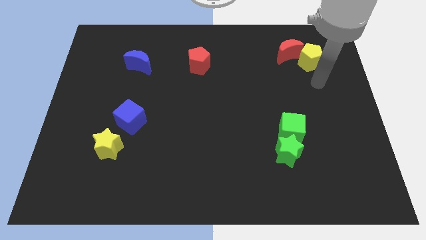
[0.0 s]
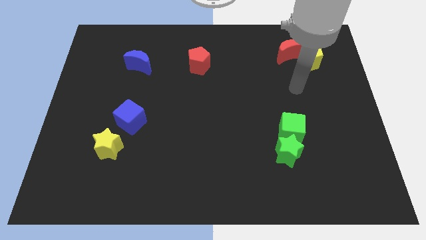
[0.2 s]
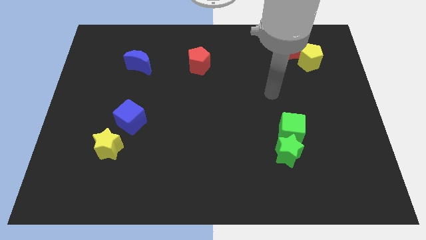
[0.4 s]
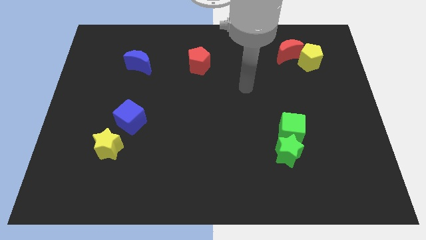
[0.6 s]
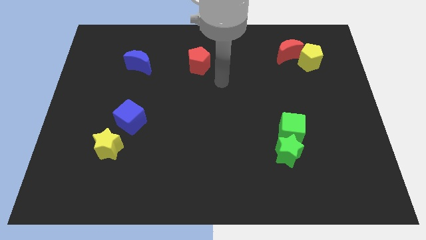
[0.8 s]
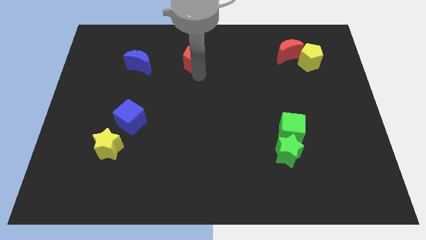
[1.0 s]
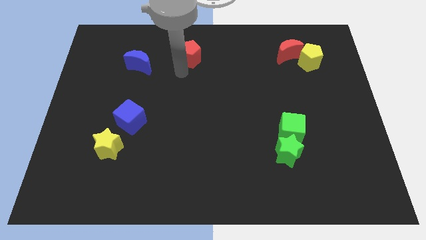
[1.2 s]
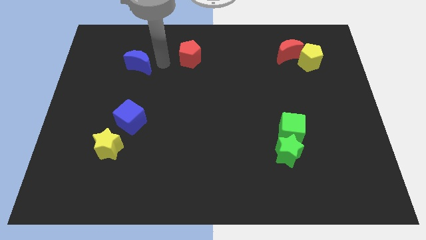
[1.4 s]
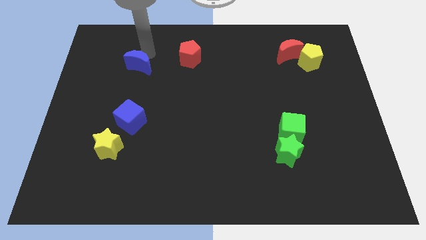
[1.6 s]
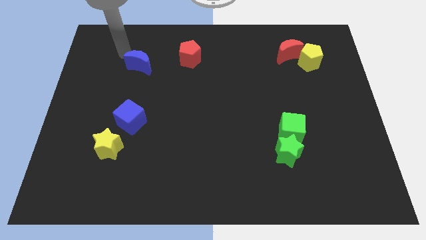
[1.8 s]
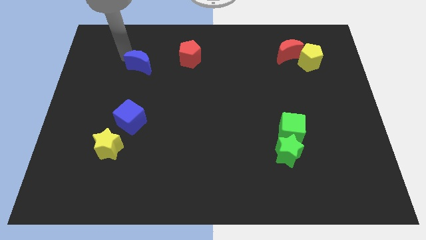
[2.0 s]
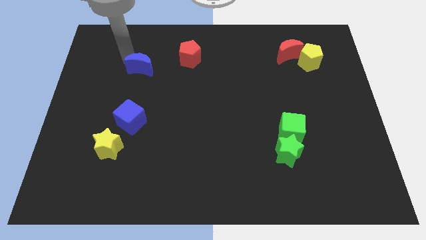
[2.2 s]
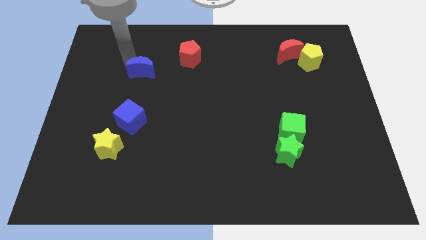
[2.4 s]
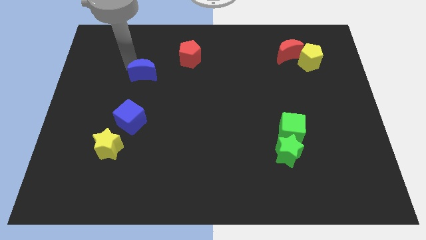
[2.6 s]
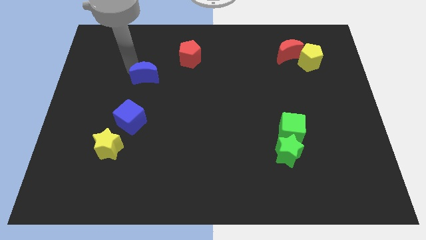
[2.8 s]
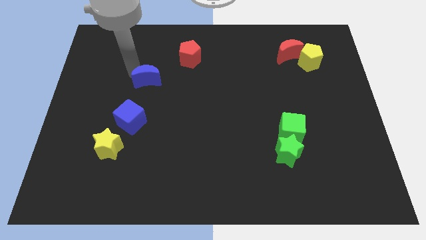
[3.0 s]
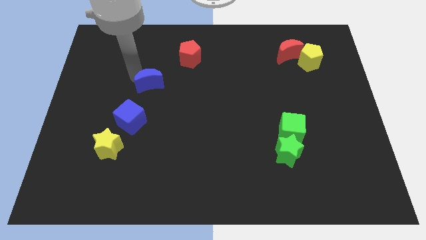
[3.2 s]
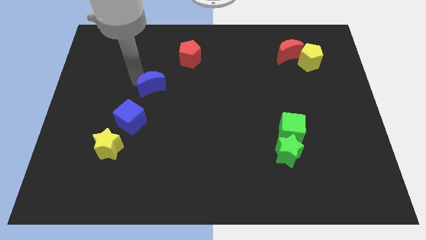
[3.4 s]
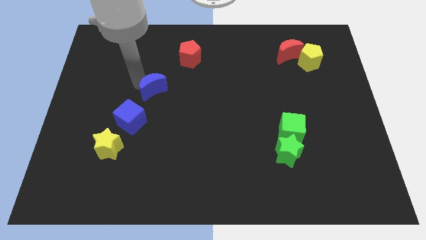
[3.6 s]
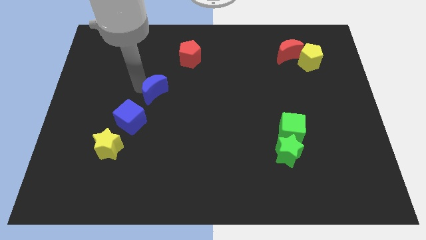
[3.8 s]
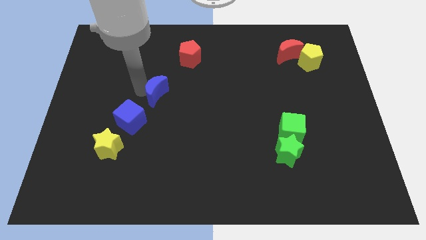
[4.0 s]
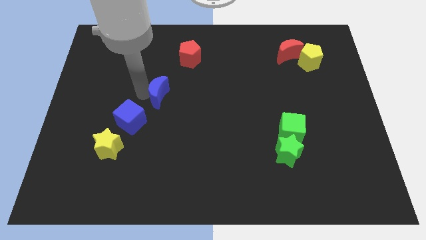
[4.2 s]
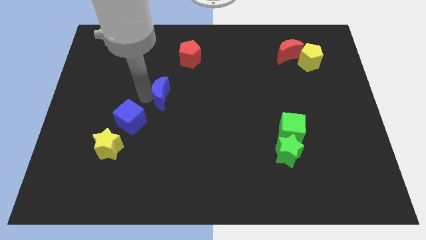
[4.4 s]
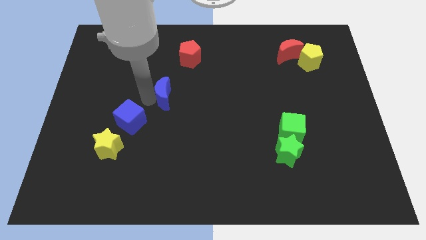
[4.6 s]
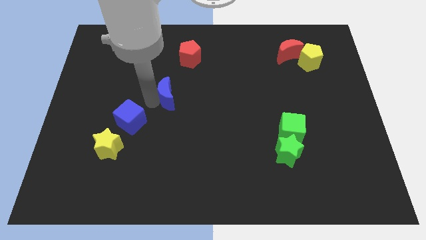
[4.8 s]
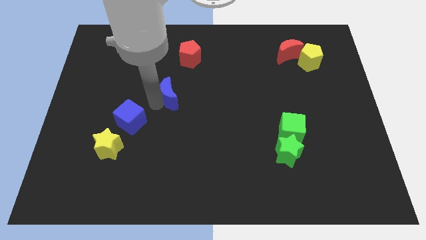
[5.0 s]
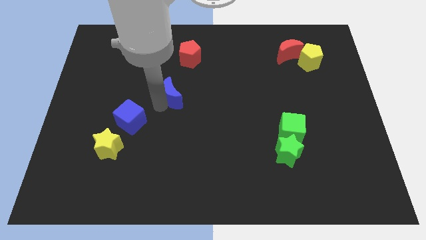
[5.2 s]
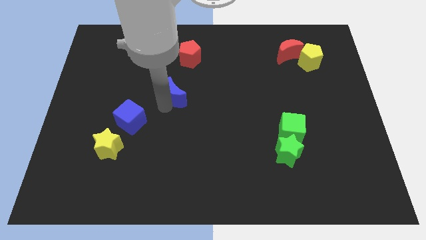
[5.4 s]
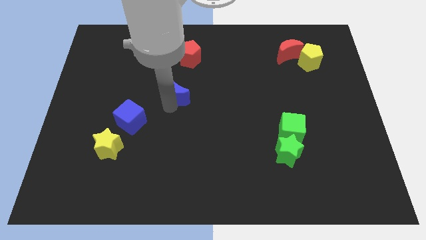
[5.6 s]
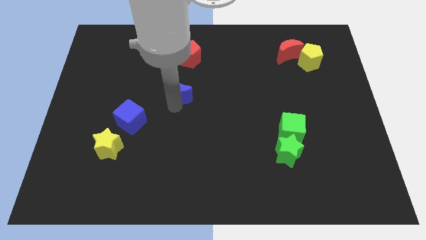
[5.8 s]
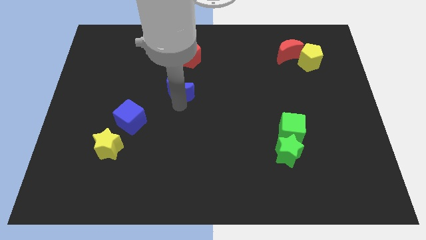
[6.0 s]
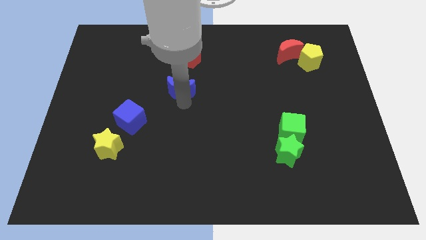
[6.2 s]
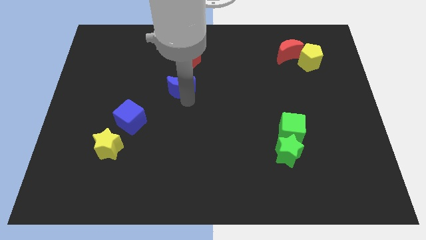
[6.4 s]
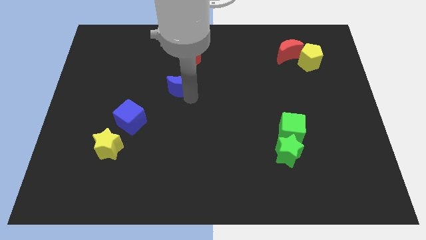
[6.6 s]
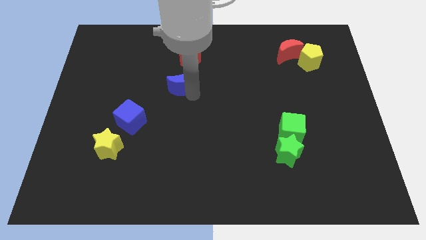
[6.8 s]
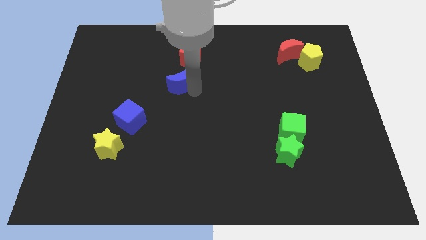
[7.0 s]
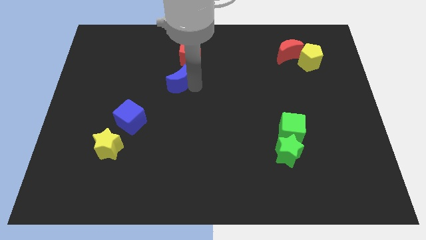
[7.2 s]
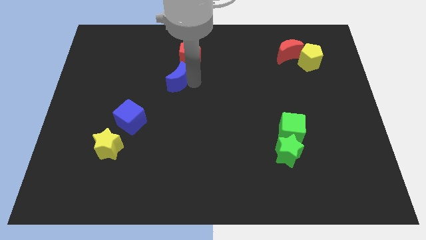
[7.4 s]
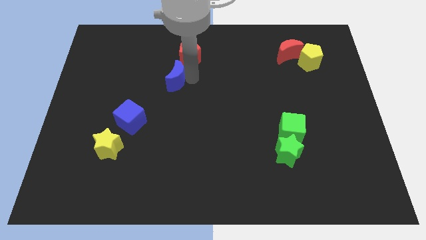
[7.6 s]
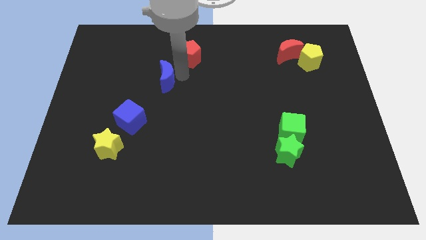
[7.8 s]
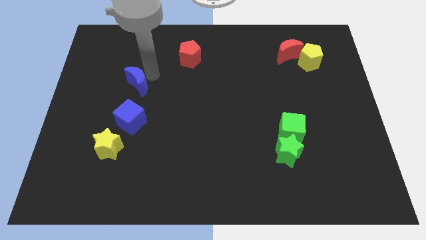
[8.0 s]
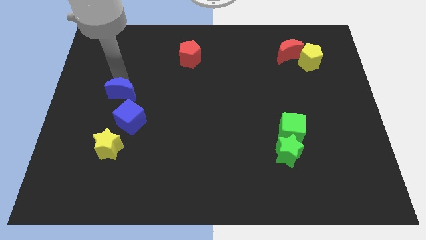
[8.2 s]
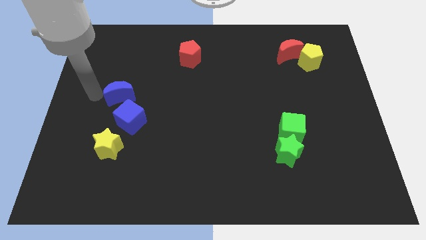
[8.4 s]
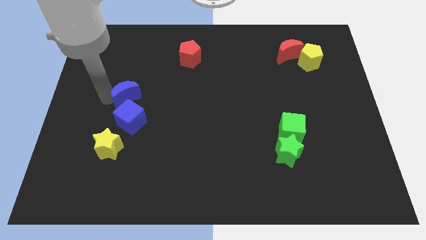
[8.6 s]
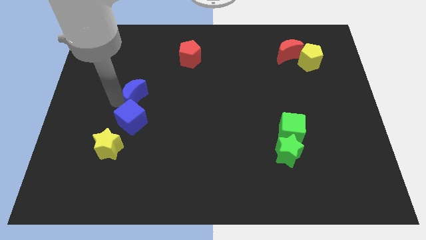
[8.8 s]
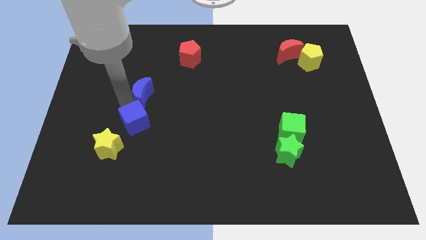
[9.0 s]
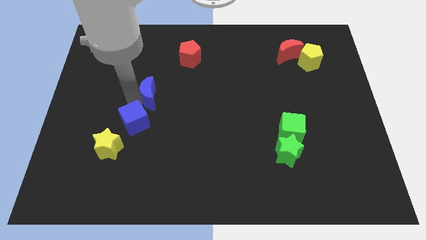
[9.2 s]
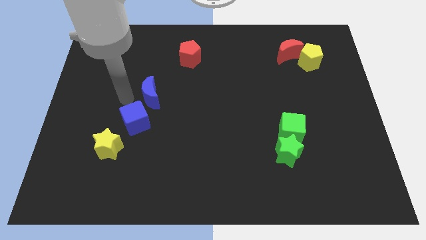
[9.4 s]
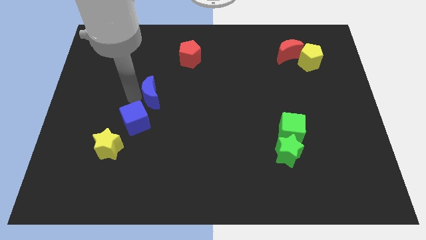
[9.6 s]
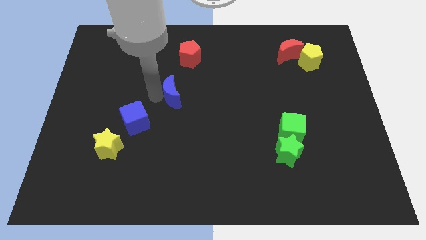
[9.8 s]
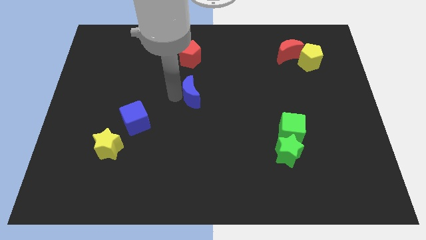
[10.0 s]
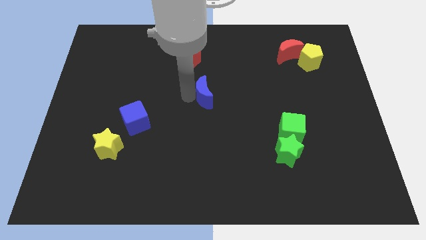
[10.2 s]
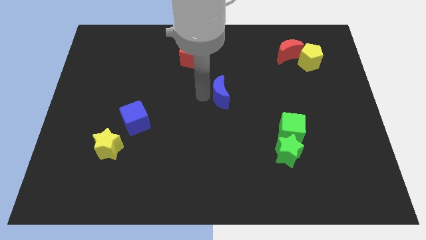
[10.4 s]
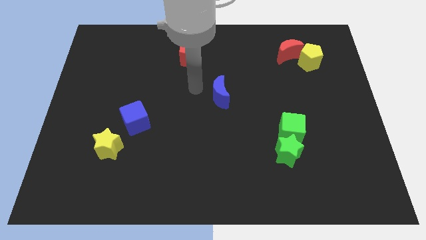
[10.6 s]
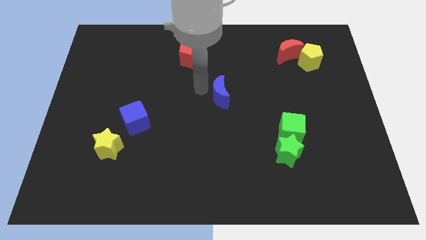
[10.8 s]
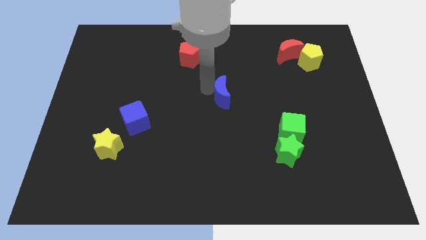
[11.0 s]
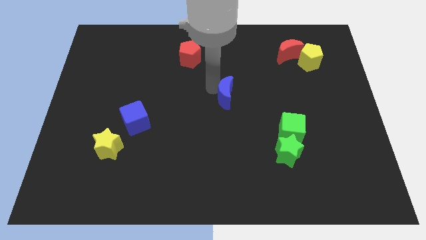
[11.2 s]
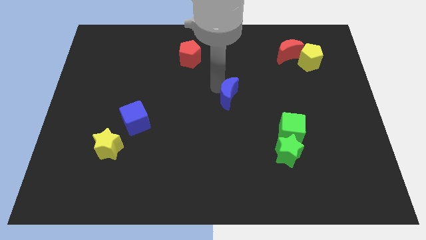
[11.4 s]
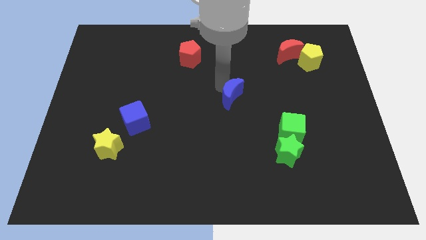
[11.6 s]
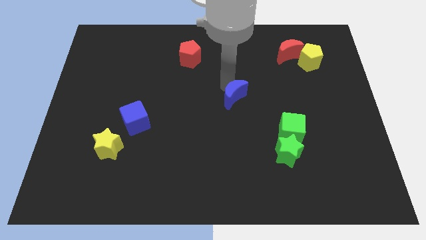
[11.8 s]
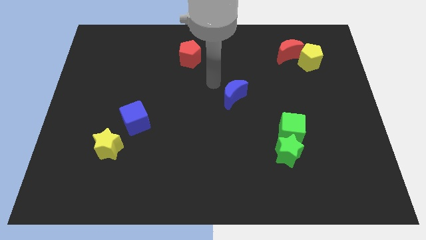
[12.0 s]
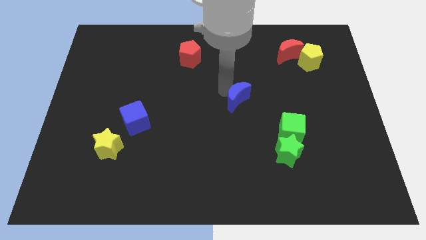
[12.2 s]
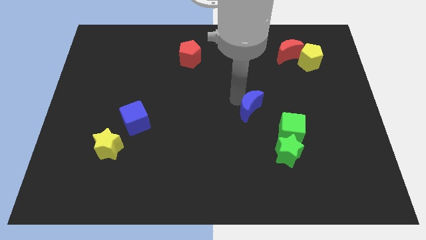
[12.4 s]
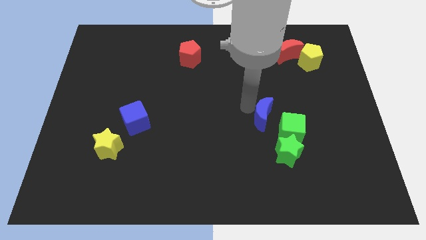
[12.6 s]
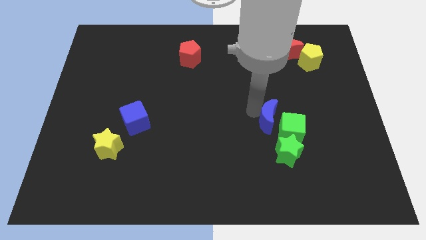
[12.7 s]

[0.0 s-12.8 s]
push the blue moon towards the green cube

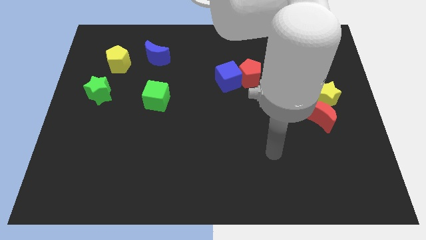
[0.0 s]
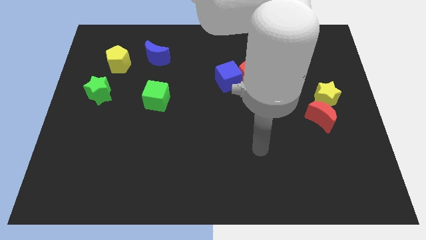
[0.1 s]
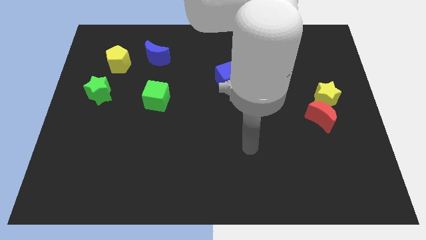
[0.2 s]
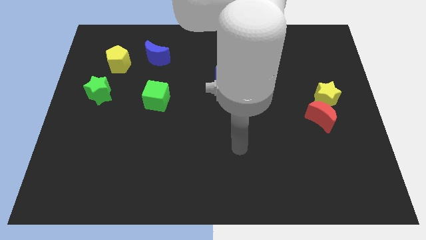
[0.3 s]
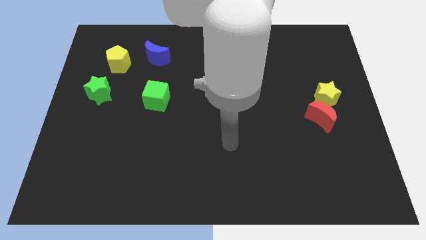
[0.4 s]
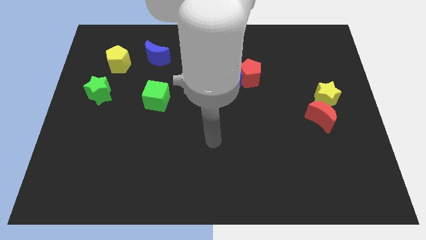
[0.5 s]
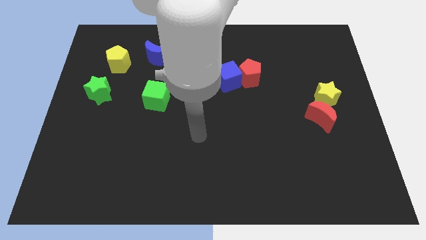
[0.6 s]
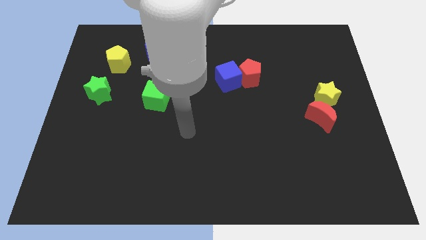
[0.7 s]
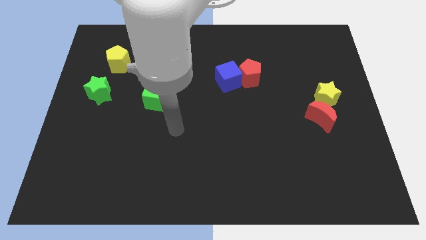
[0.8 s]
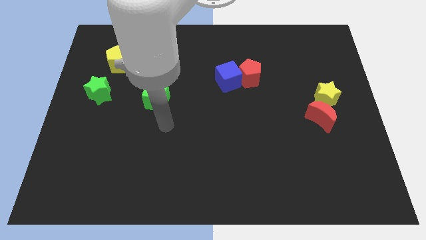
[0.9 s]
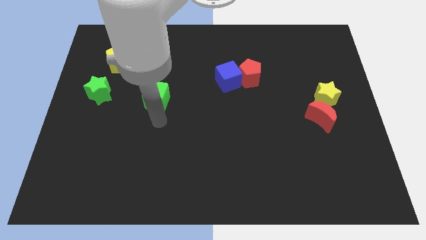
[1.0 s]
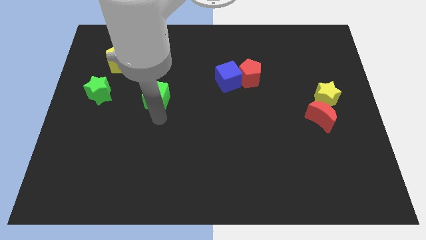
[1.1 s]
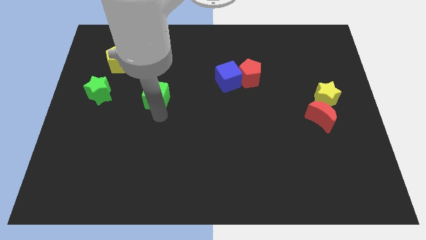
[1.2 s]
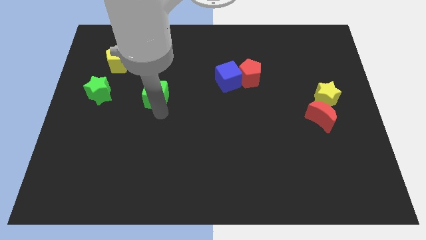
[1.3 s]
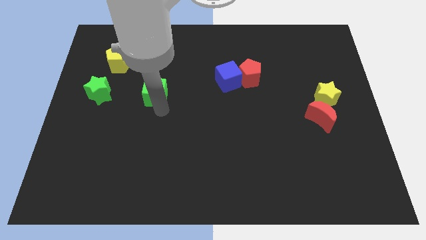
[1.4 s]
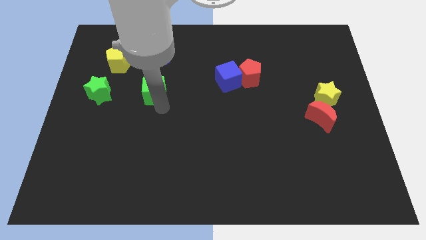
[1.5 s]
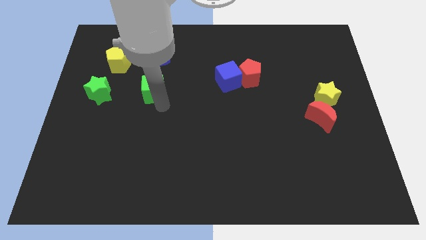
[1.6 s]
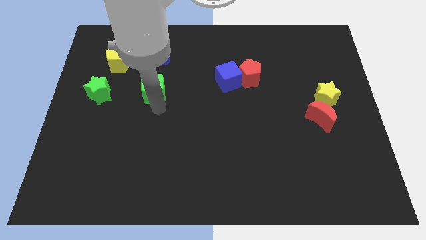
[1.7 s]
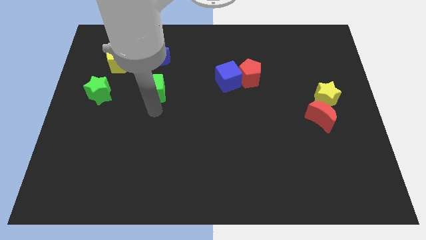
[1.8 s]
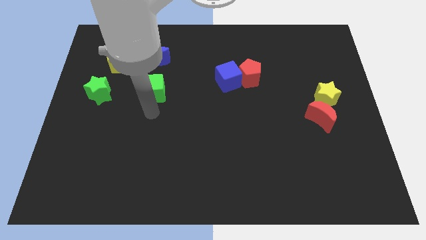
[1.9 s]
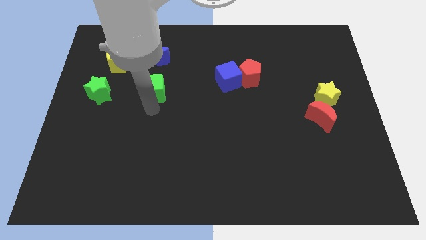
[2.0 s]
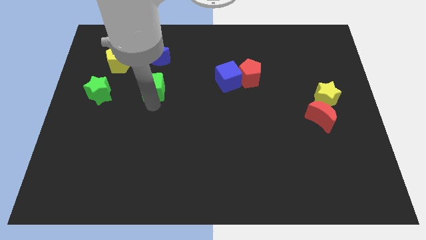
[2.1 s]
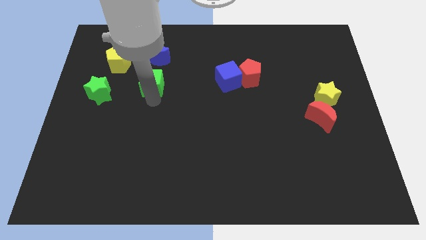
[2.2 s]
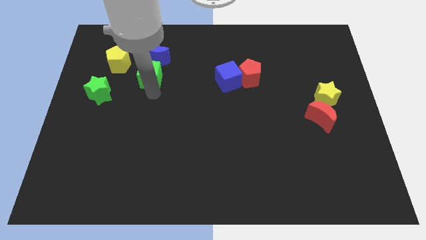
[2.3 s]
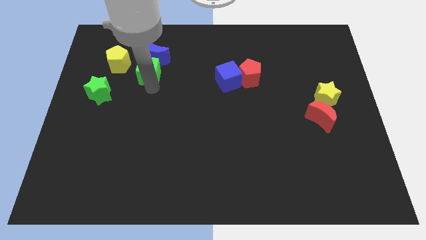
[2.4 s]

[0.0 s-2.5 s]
move the green cube to the blue moon
